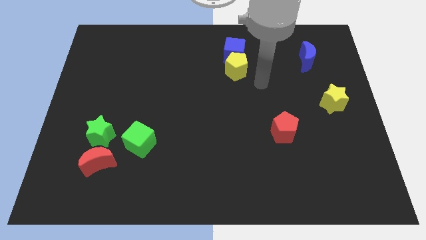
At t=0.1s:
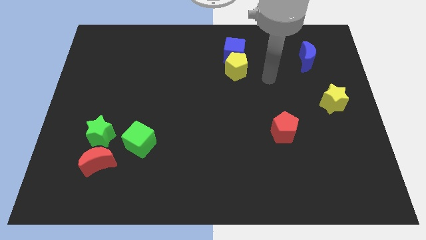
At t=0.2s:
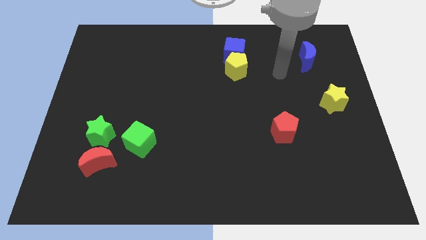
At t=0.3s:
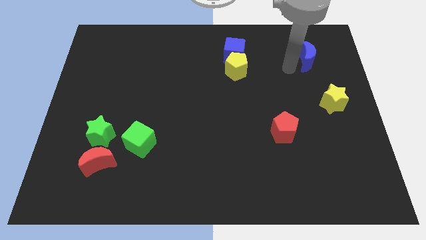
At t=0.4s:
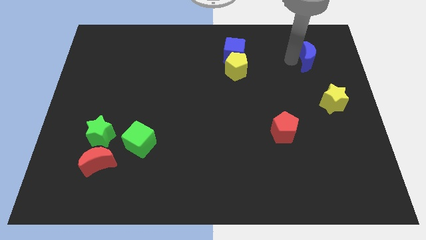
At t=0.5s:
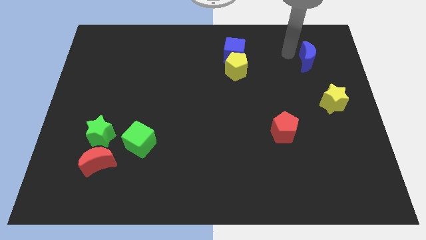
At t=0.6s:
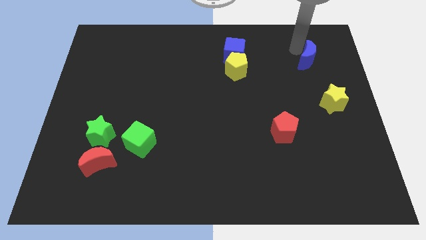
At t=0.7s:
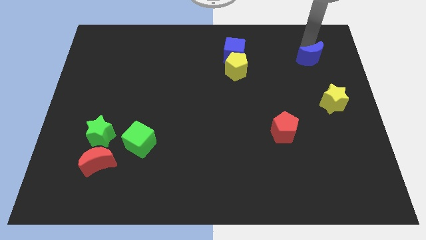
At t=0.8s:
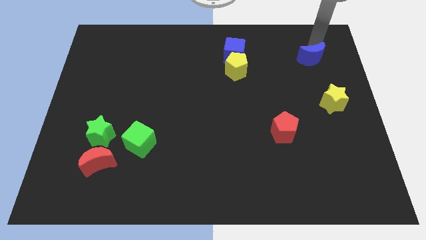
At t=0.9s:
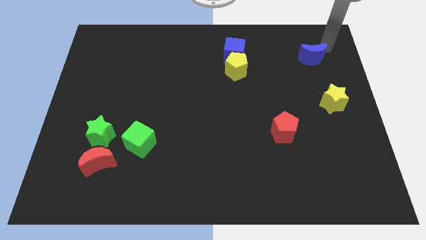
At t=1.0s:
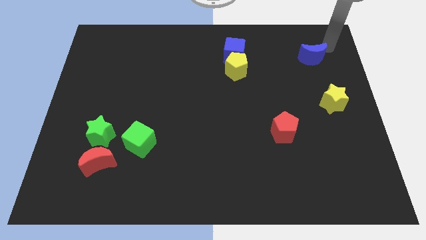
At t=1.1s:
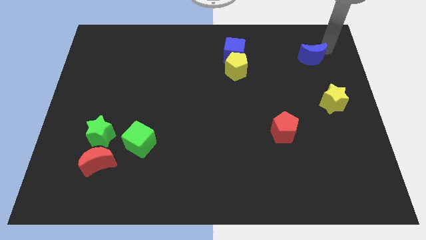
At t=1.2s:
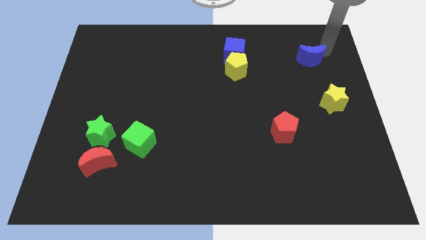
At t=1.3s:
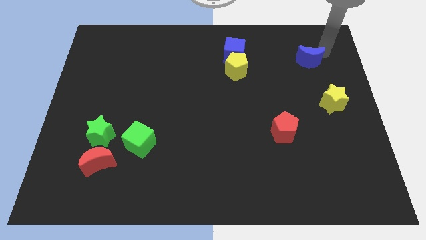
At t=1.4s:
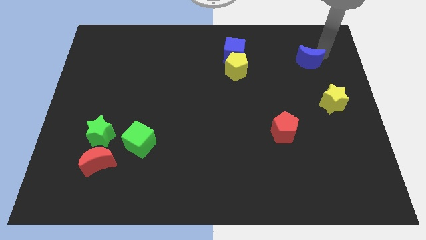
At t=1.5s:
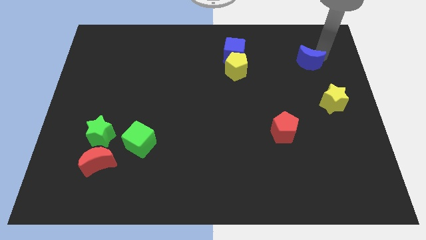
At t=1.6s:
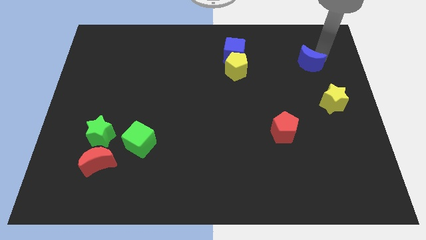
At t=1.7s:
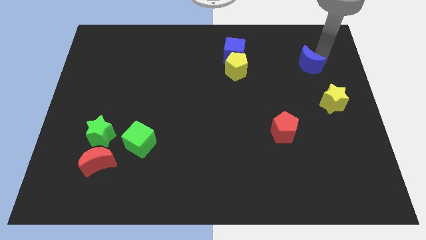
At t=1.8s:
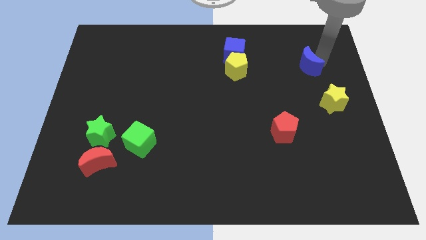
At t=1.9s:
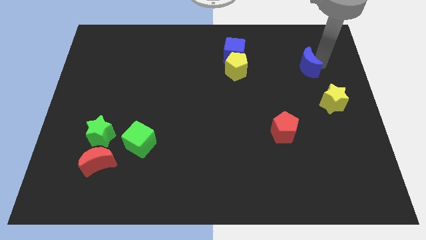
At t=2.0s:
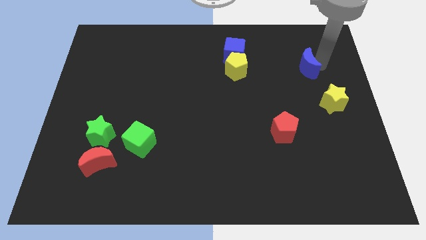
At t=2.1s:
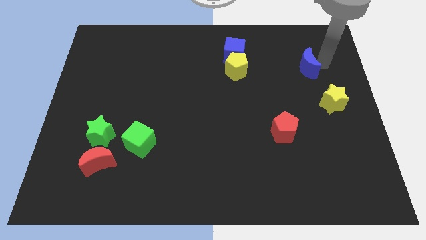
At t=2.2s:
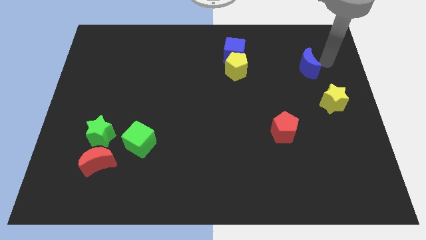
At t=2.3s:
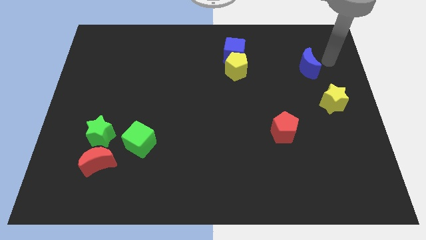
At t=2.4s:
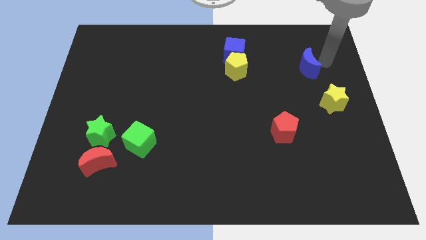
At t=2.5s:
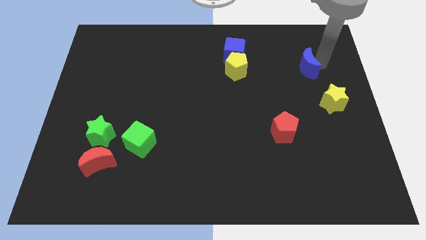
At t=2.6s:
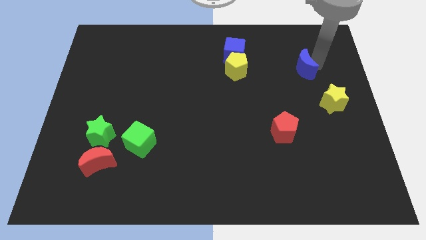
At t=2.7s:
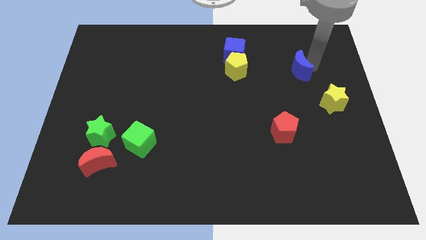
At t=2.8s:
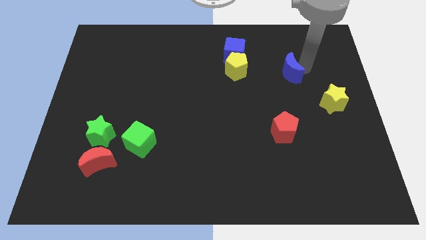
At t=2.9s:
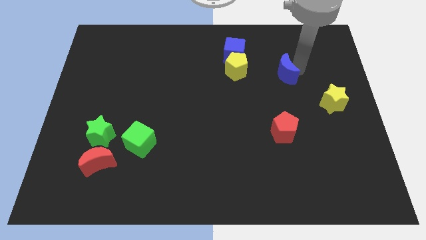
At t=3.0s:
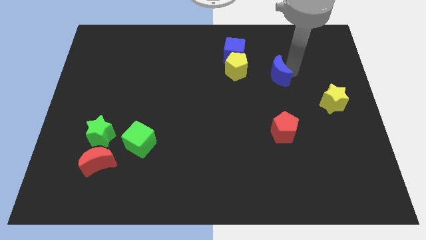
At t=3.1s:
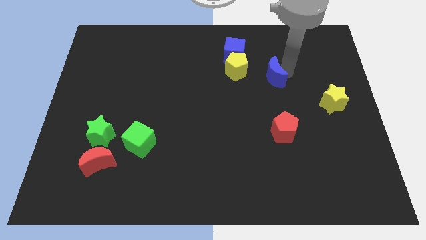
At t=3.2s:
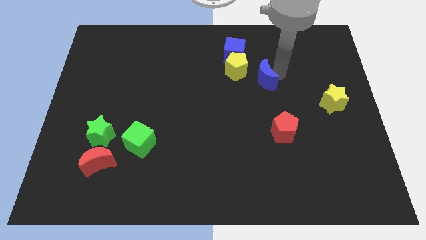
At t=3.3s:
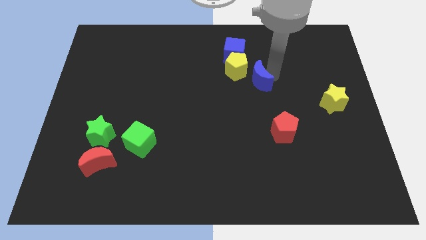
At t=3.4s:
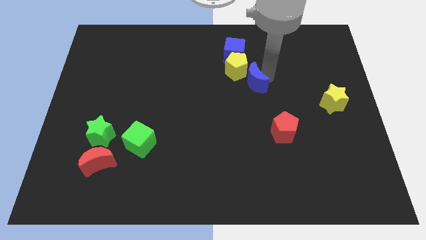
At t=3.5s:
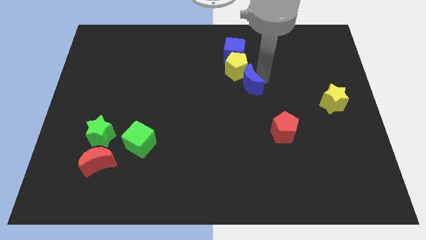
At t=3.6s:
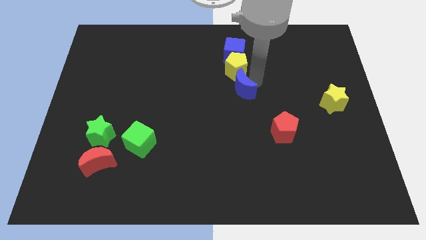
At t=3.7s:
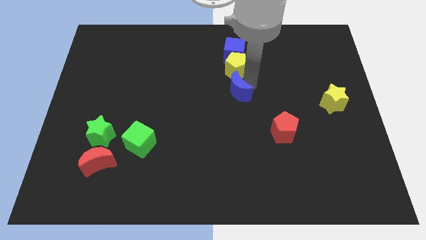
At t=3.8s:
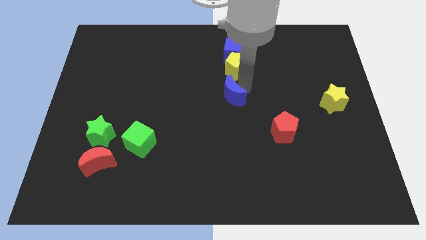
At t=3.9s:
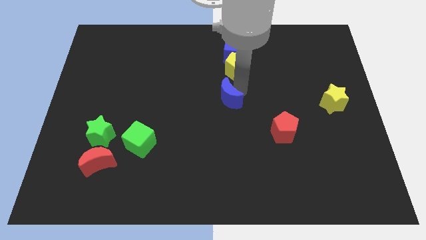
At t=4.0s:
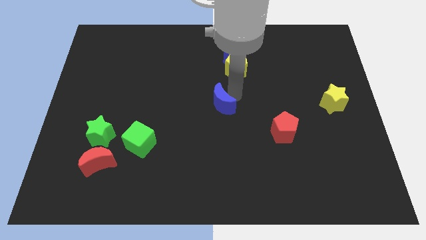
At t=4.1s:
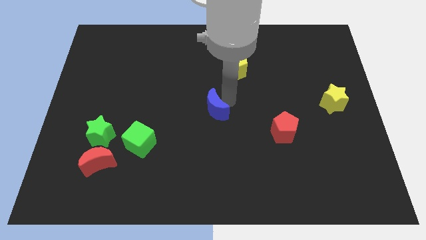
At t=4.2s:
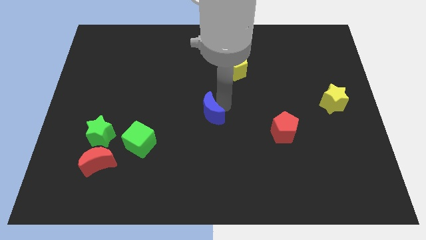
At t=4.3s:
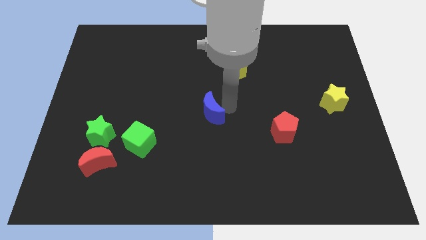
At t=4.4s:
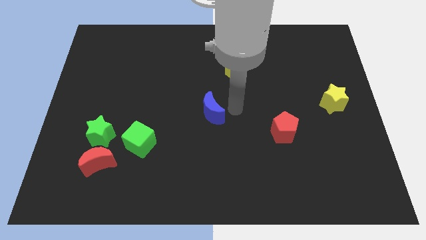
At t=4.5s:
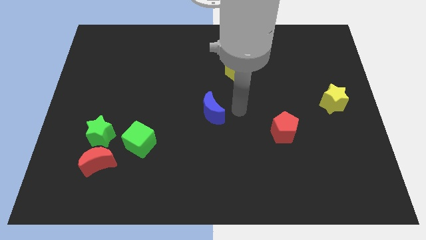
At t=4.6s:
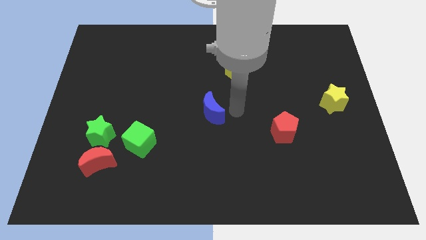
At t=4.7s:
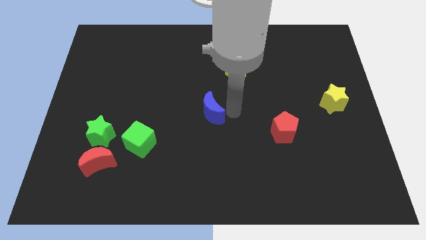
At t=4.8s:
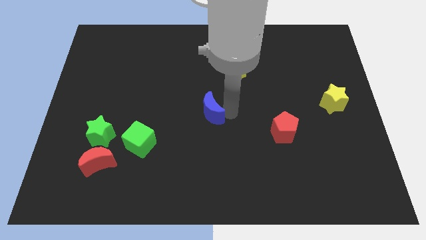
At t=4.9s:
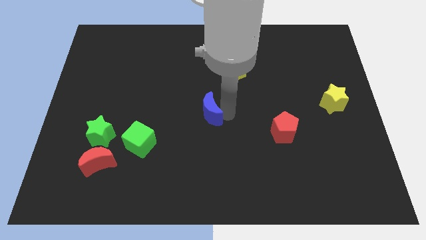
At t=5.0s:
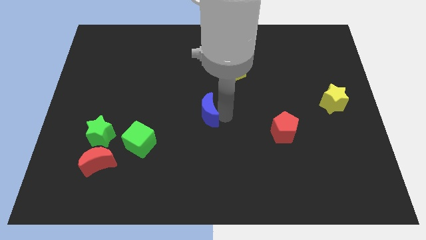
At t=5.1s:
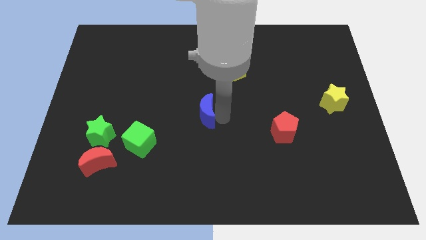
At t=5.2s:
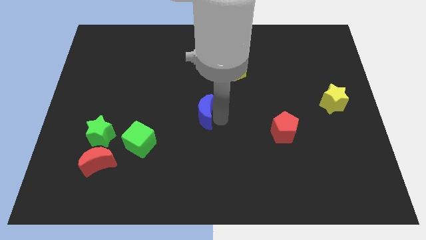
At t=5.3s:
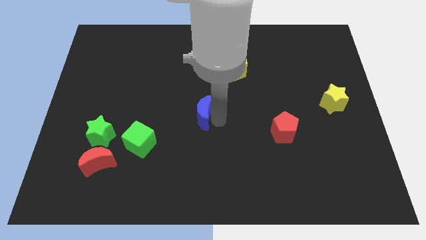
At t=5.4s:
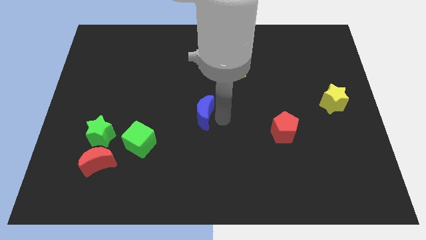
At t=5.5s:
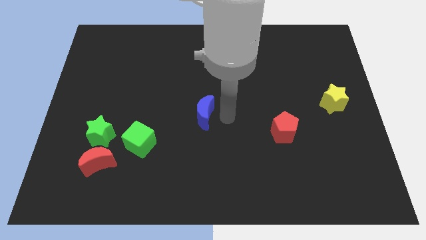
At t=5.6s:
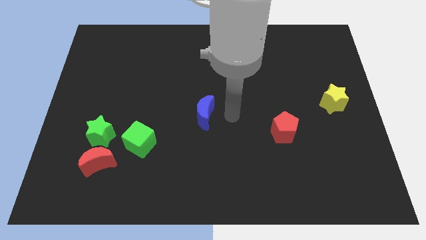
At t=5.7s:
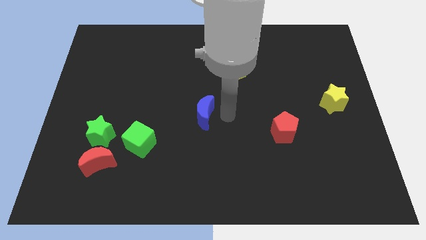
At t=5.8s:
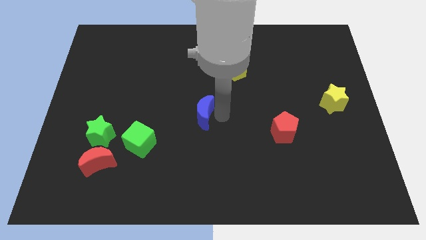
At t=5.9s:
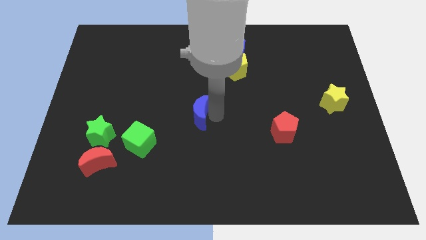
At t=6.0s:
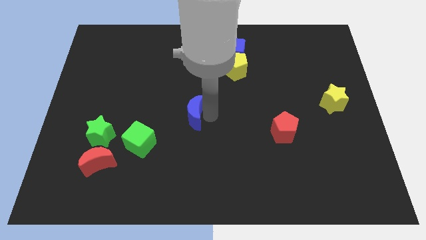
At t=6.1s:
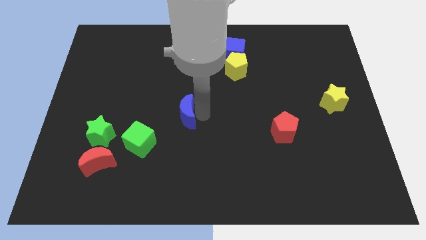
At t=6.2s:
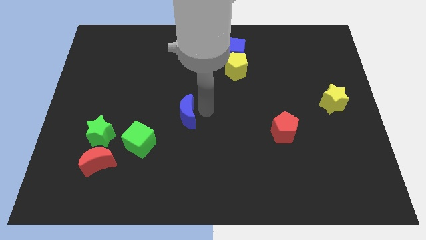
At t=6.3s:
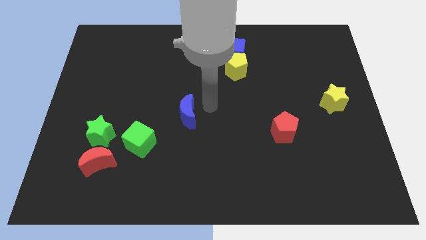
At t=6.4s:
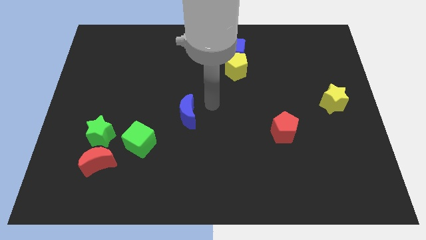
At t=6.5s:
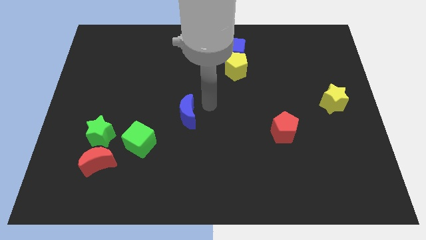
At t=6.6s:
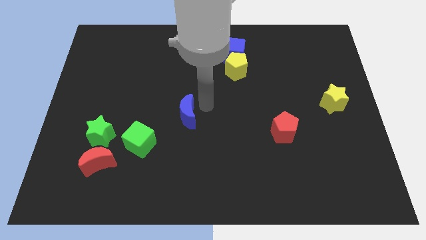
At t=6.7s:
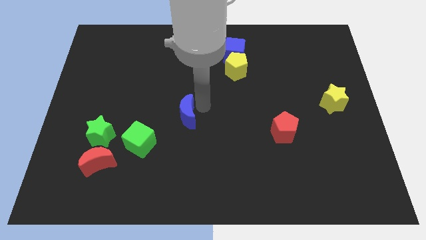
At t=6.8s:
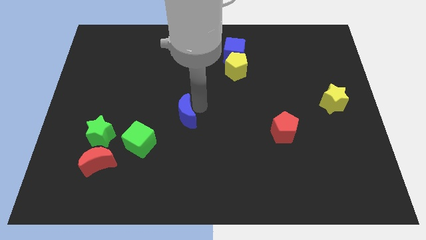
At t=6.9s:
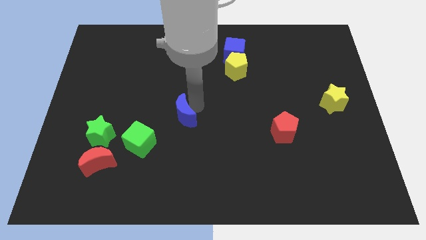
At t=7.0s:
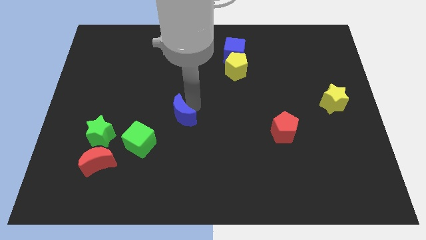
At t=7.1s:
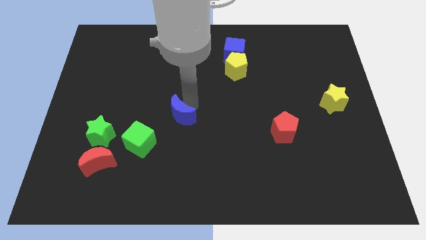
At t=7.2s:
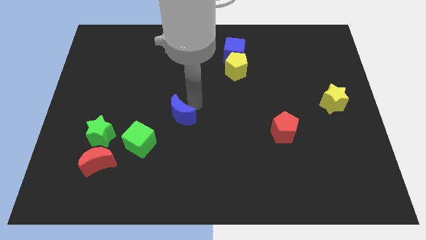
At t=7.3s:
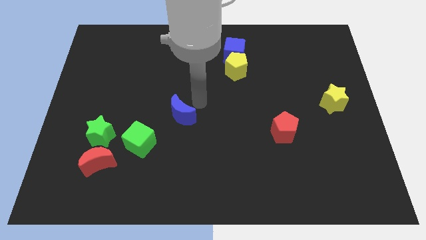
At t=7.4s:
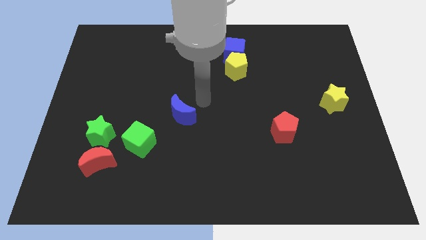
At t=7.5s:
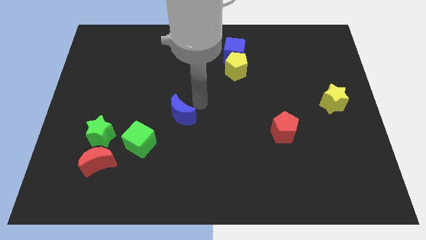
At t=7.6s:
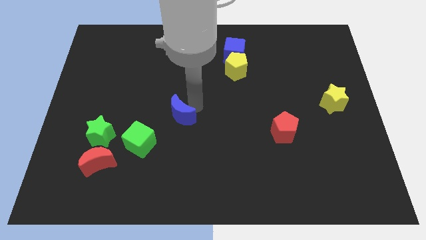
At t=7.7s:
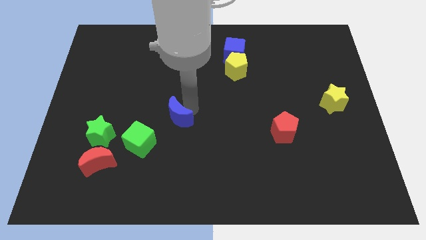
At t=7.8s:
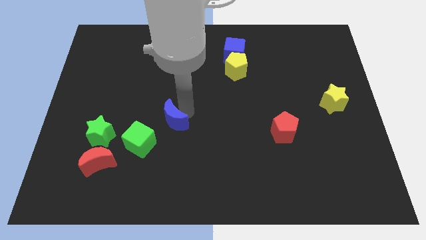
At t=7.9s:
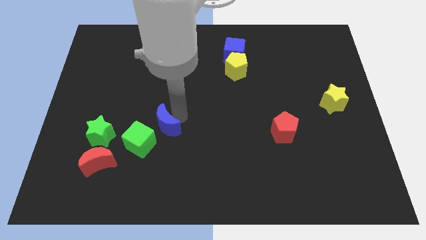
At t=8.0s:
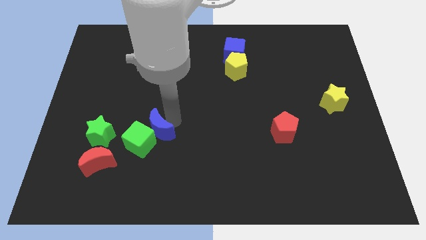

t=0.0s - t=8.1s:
push the blue moon towards the green cube
